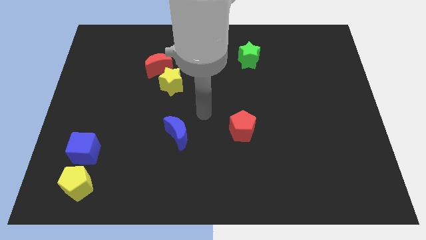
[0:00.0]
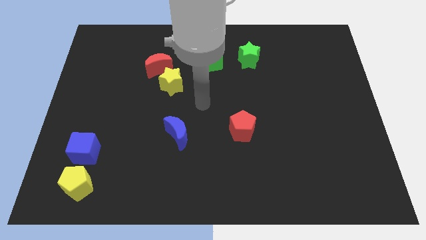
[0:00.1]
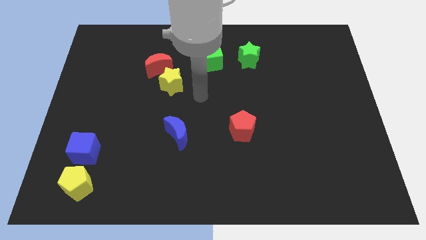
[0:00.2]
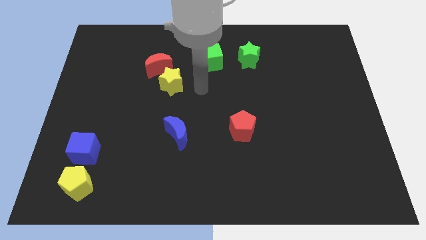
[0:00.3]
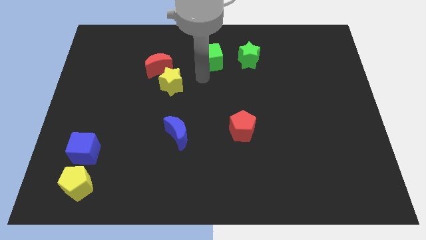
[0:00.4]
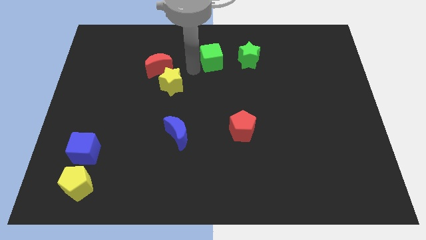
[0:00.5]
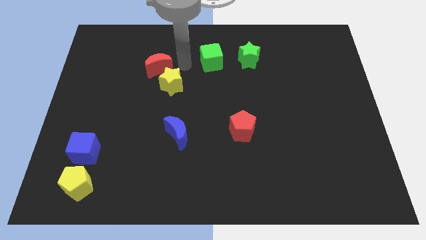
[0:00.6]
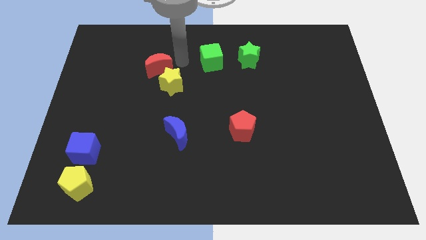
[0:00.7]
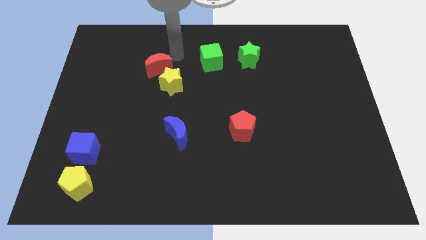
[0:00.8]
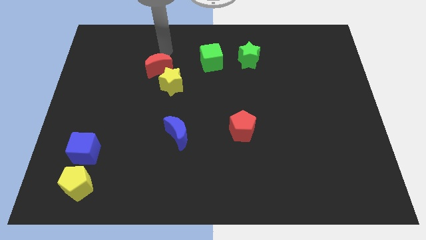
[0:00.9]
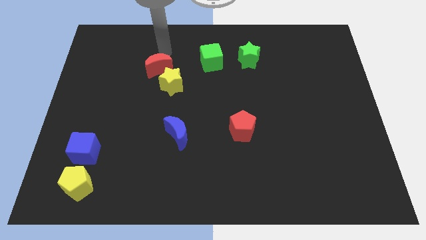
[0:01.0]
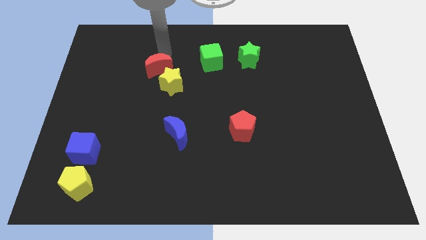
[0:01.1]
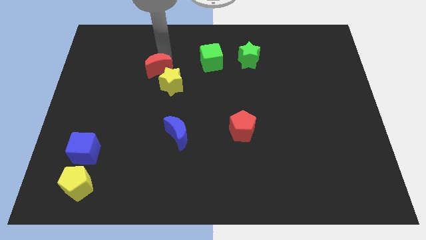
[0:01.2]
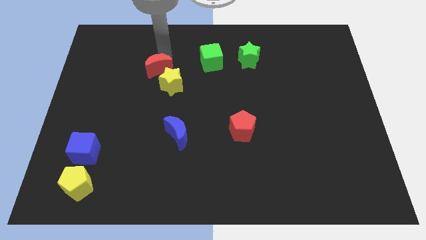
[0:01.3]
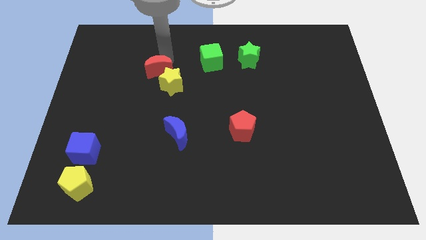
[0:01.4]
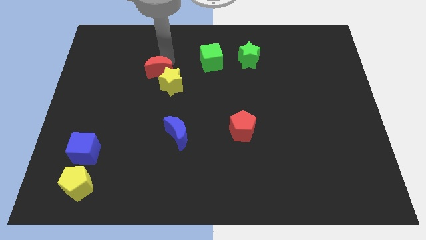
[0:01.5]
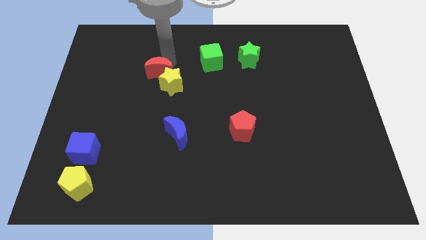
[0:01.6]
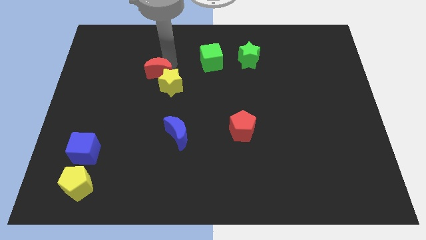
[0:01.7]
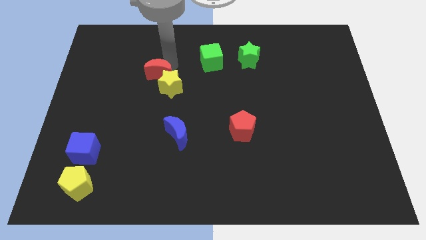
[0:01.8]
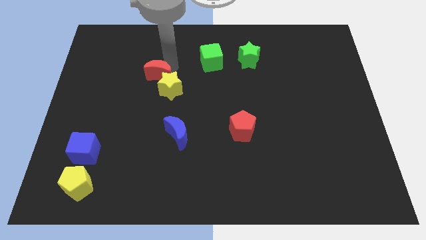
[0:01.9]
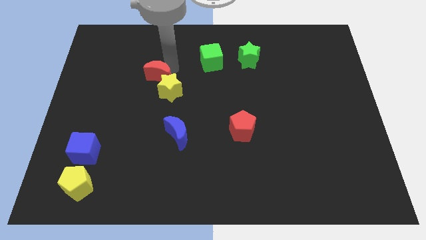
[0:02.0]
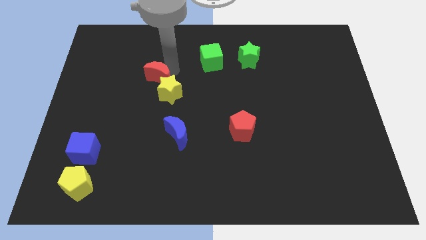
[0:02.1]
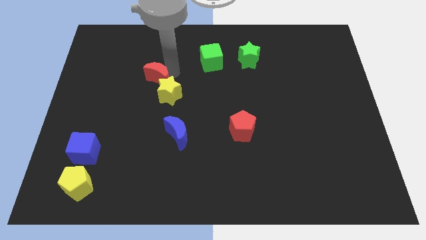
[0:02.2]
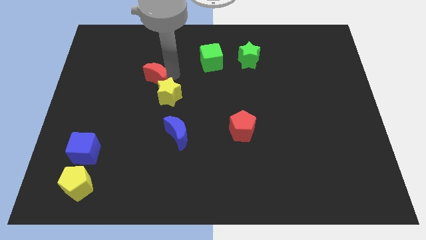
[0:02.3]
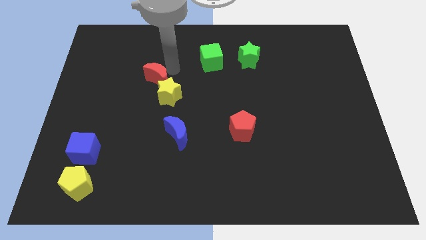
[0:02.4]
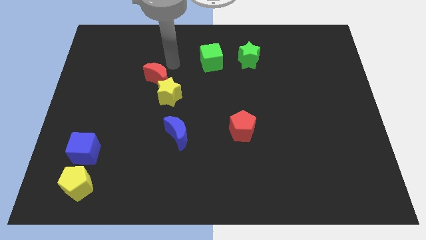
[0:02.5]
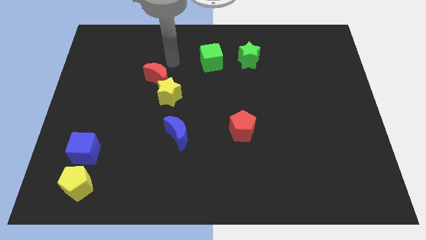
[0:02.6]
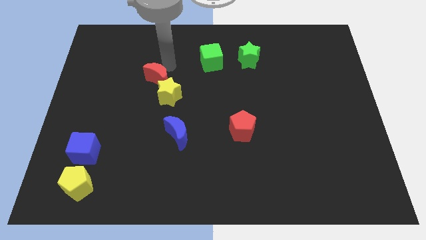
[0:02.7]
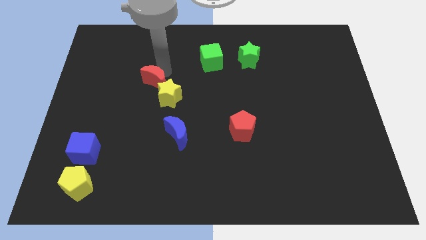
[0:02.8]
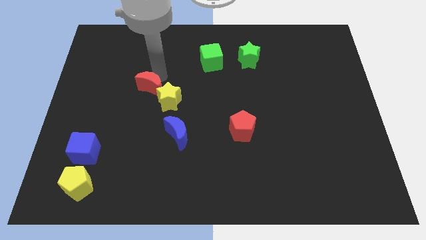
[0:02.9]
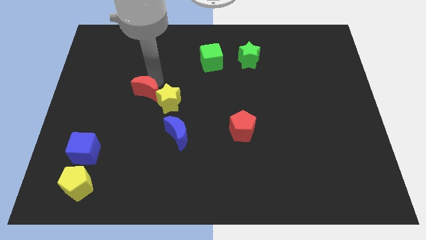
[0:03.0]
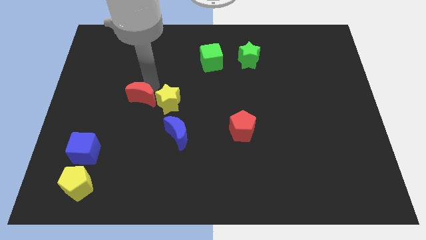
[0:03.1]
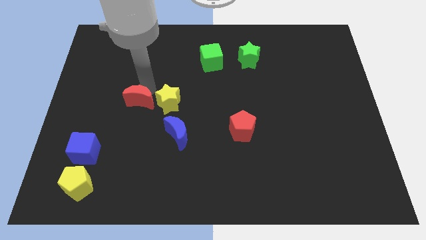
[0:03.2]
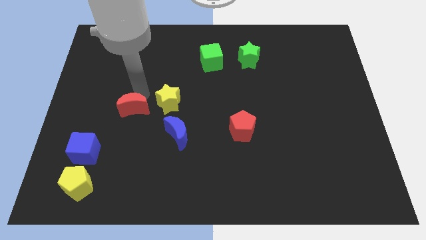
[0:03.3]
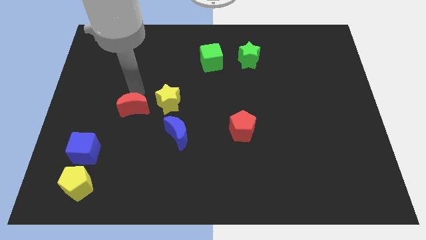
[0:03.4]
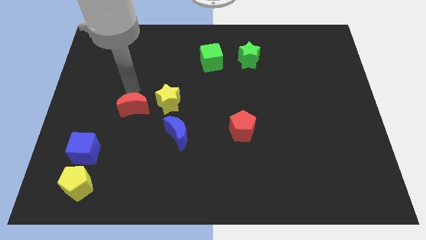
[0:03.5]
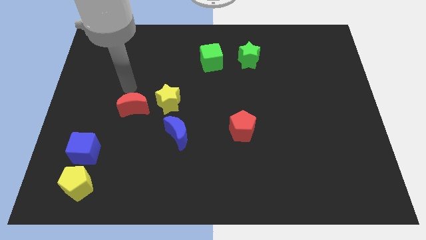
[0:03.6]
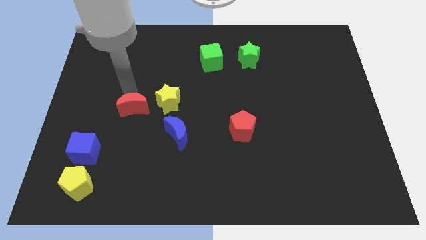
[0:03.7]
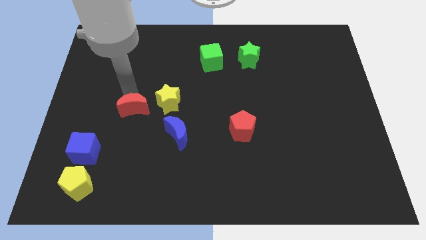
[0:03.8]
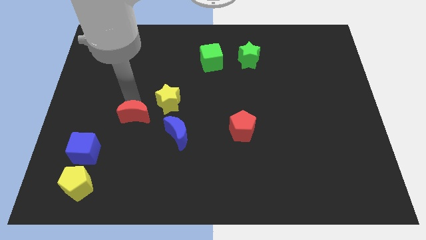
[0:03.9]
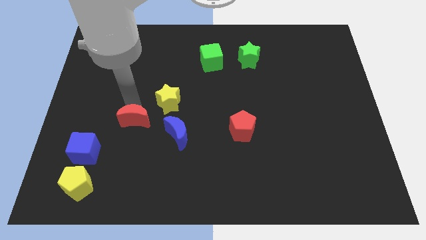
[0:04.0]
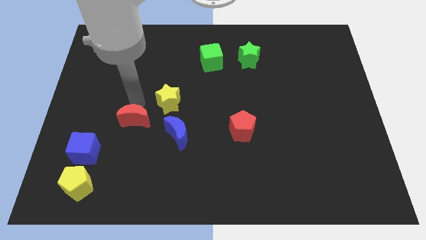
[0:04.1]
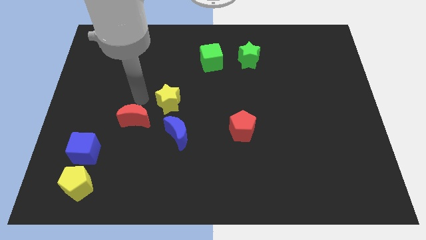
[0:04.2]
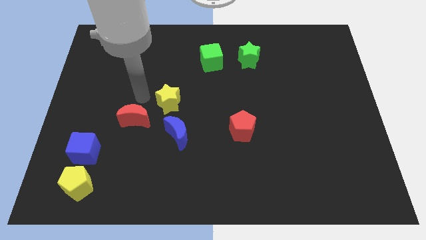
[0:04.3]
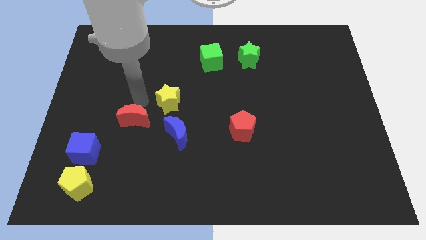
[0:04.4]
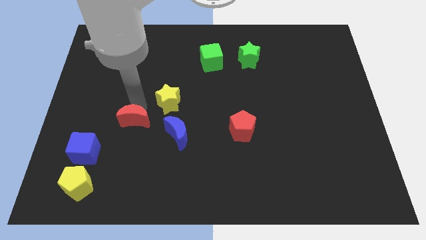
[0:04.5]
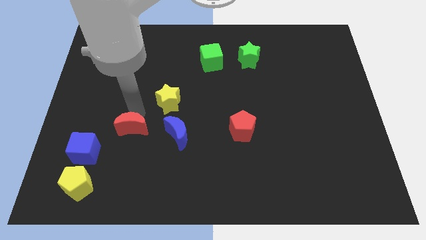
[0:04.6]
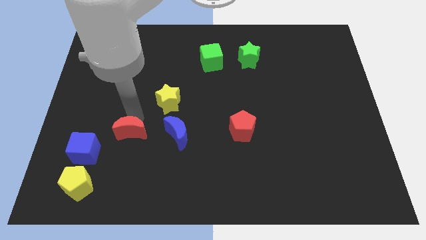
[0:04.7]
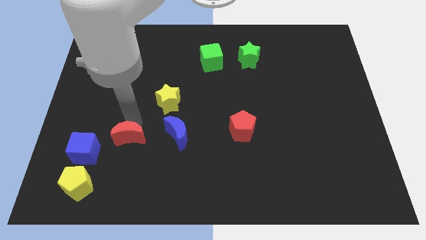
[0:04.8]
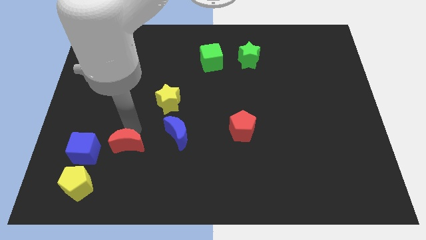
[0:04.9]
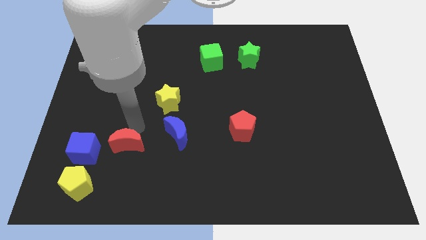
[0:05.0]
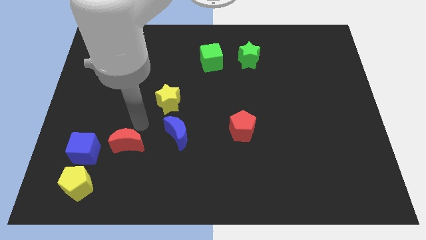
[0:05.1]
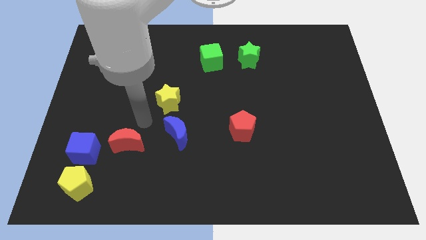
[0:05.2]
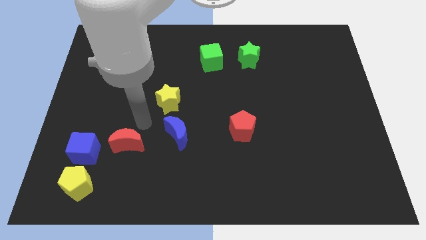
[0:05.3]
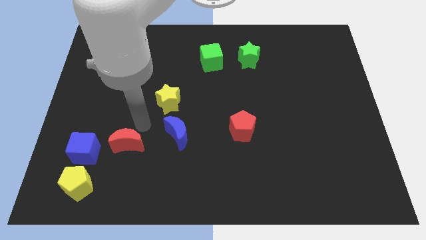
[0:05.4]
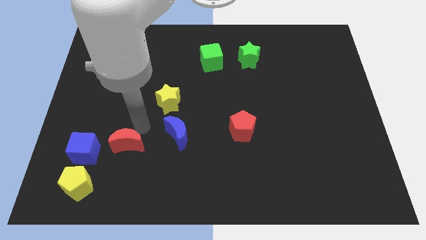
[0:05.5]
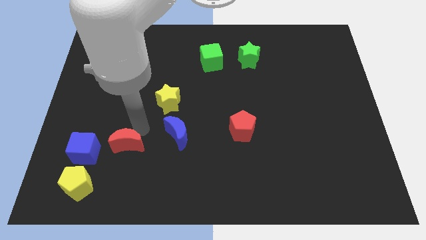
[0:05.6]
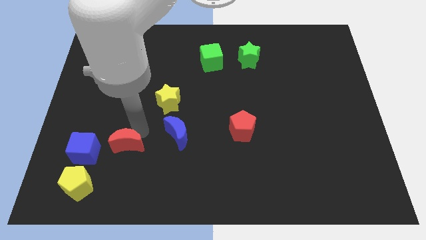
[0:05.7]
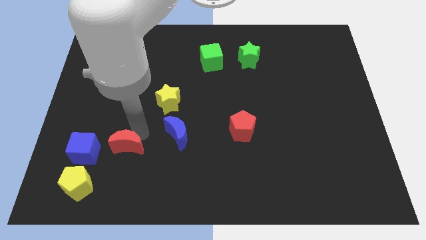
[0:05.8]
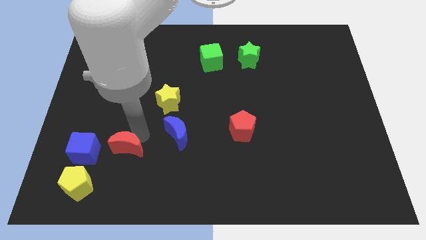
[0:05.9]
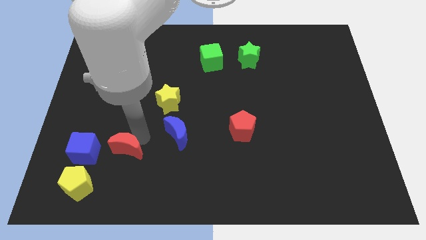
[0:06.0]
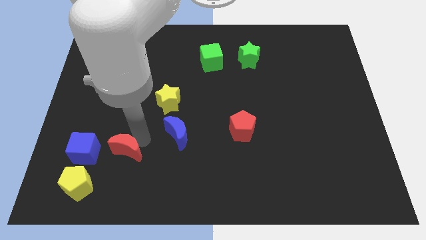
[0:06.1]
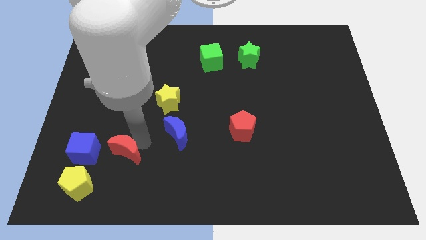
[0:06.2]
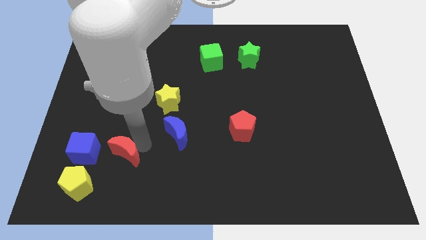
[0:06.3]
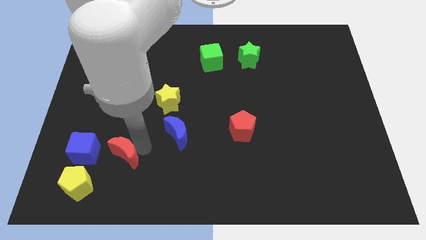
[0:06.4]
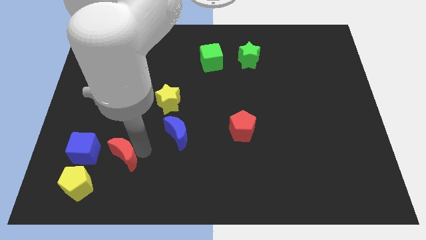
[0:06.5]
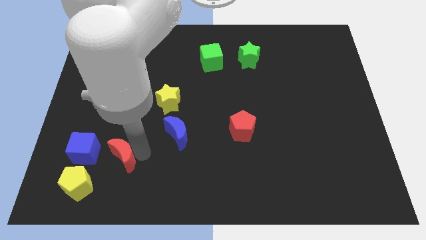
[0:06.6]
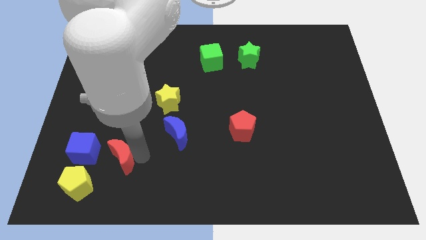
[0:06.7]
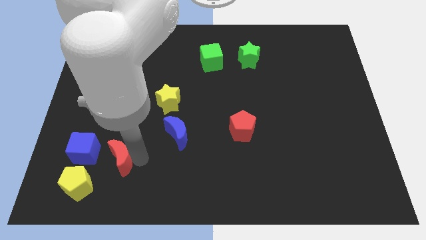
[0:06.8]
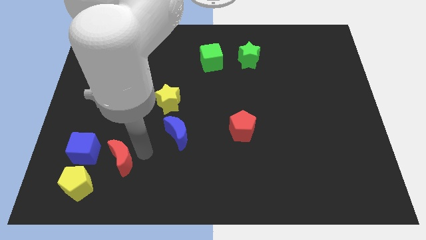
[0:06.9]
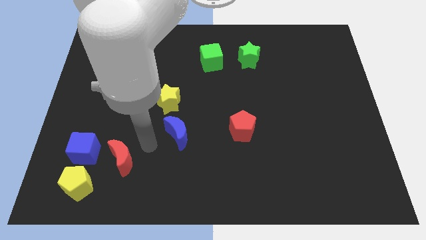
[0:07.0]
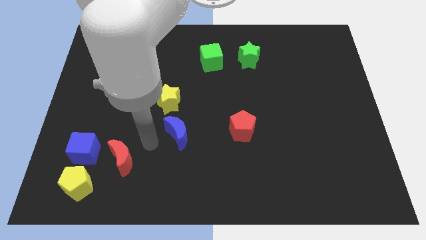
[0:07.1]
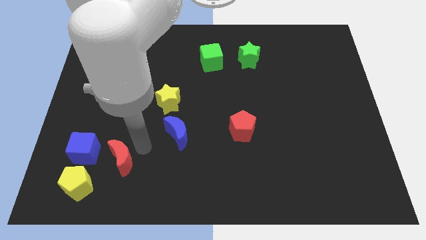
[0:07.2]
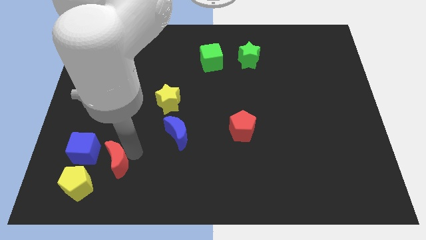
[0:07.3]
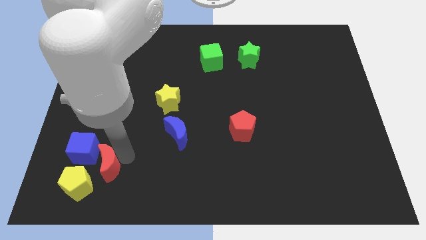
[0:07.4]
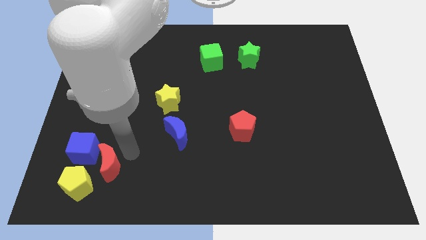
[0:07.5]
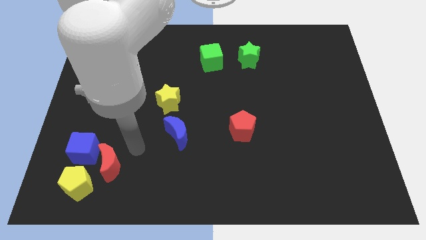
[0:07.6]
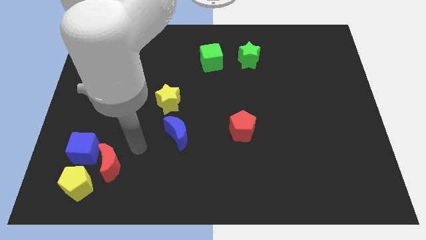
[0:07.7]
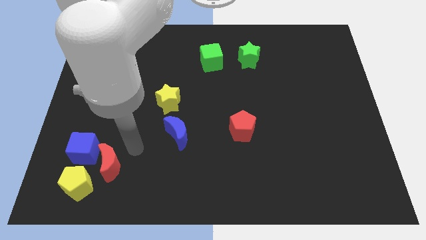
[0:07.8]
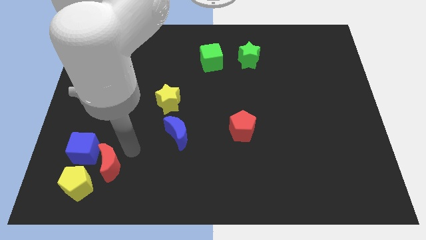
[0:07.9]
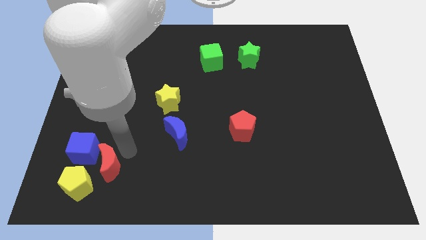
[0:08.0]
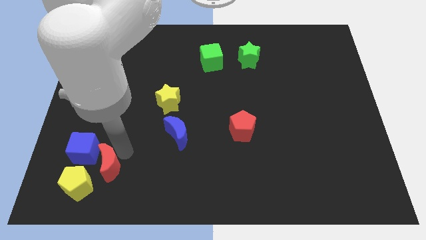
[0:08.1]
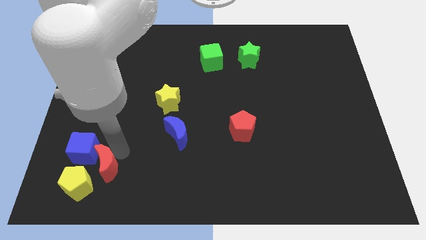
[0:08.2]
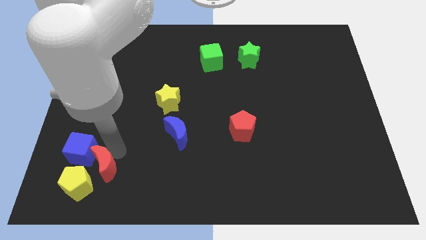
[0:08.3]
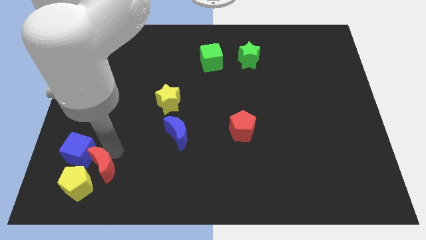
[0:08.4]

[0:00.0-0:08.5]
slide the red moon to the yellow pentagon
